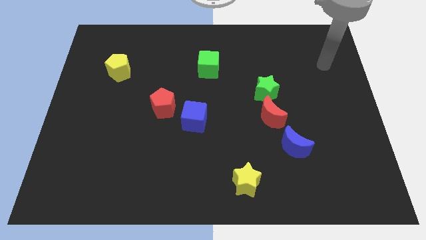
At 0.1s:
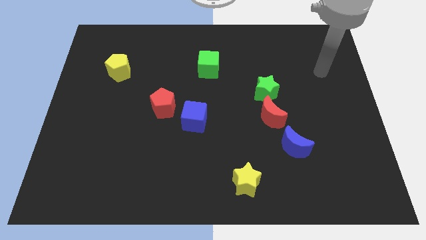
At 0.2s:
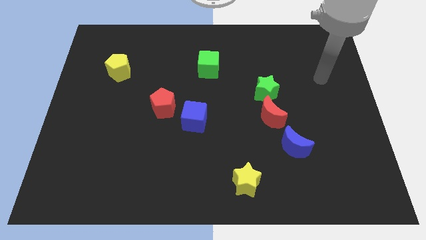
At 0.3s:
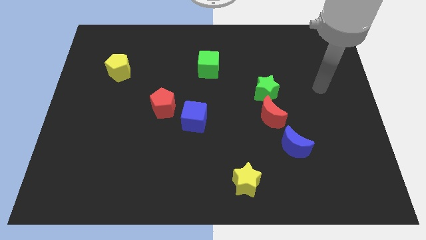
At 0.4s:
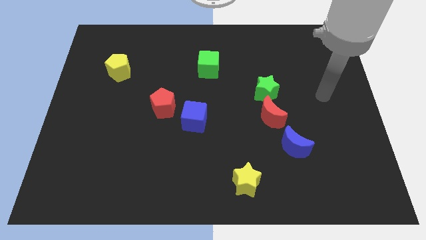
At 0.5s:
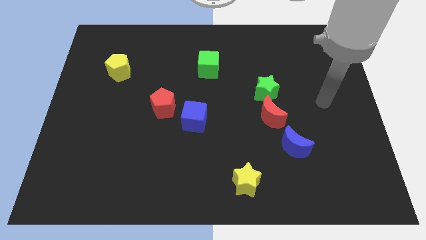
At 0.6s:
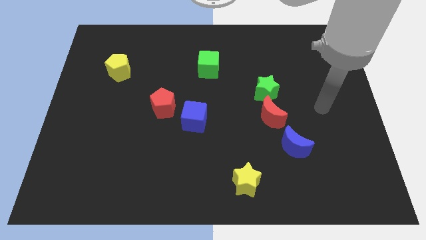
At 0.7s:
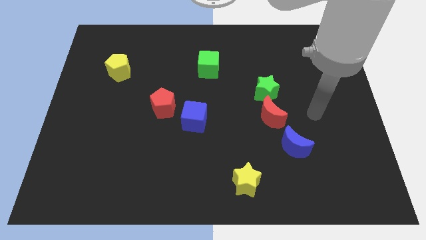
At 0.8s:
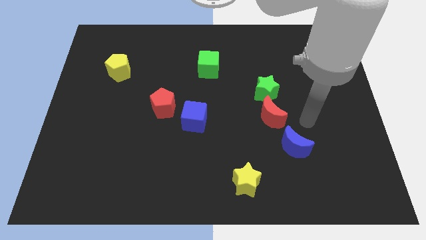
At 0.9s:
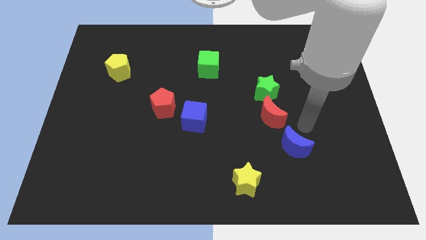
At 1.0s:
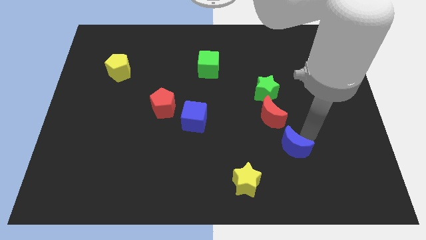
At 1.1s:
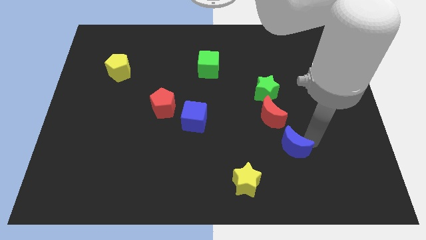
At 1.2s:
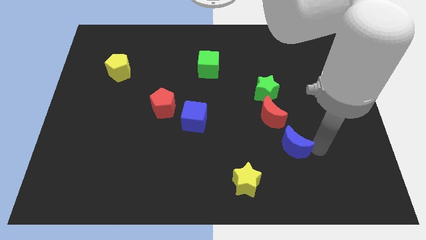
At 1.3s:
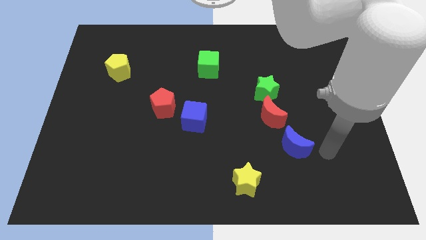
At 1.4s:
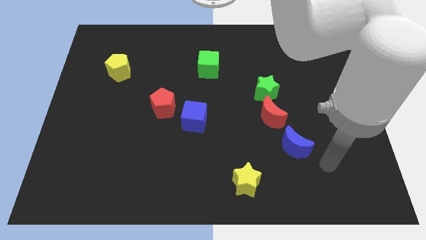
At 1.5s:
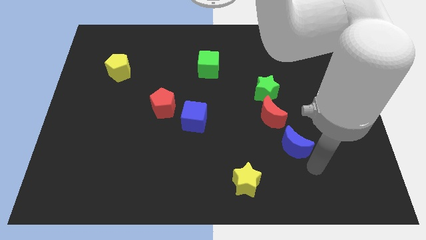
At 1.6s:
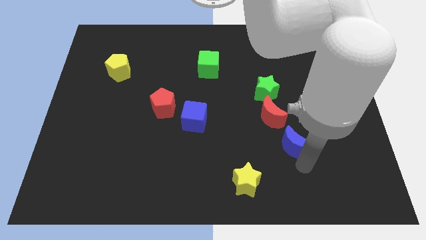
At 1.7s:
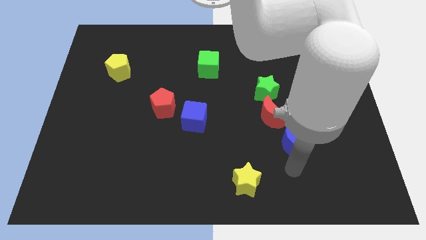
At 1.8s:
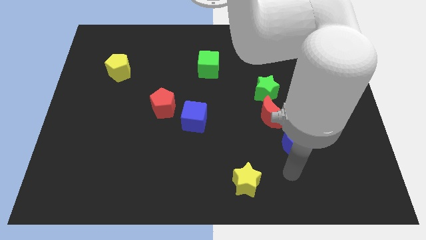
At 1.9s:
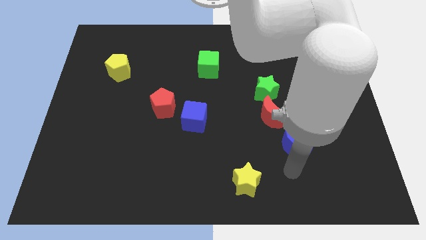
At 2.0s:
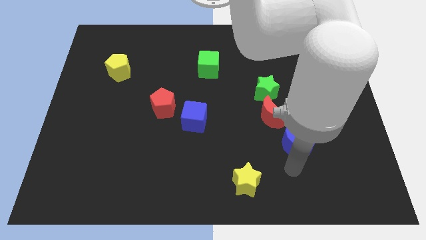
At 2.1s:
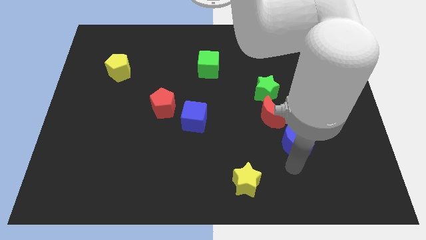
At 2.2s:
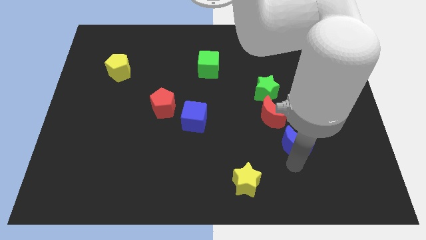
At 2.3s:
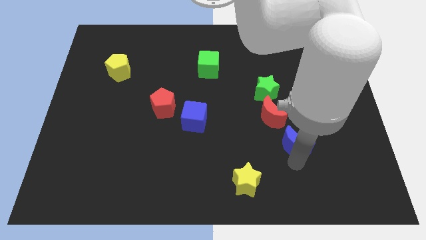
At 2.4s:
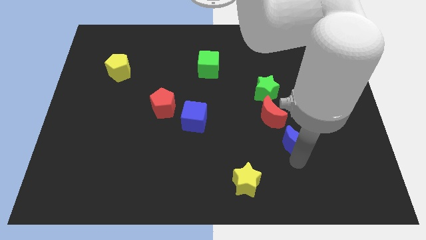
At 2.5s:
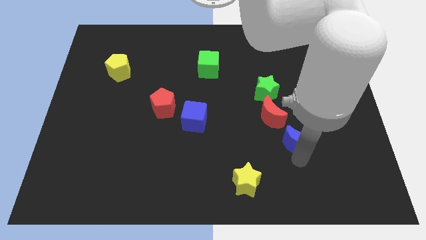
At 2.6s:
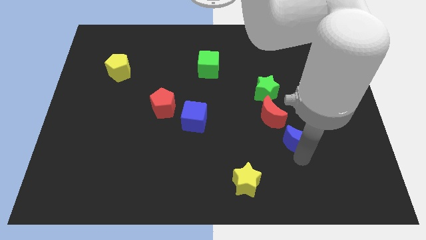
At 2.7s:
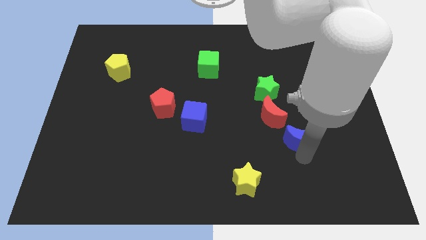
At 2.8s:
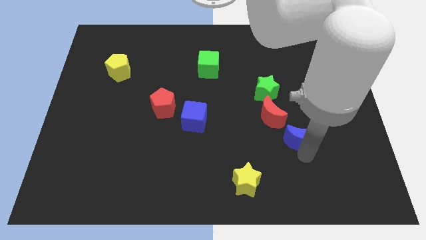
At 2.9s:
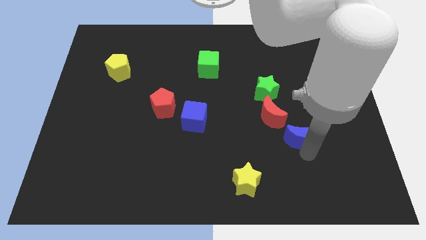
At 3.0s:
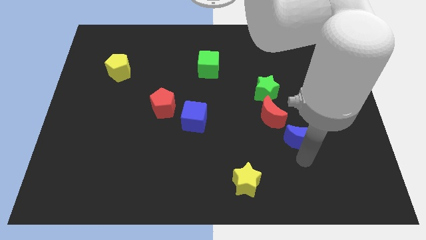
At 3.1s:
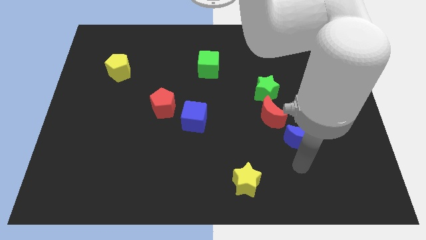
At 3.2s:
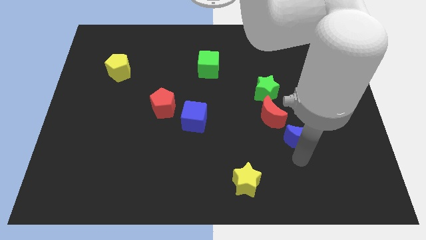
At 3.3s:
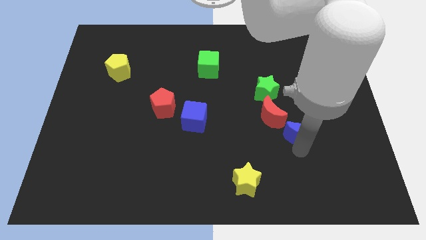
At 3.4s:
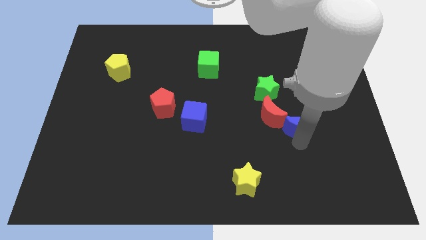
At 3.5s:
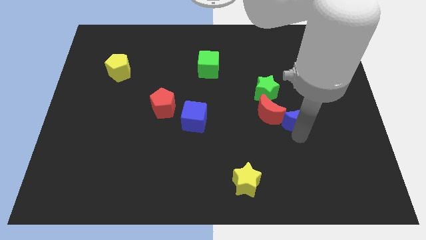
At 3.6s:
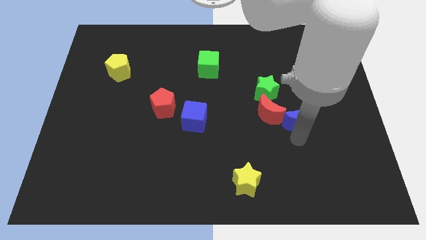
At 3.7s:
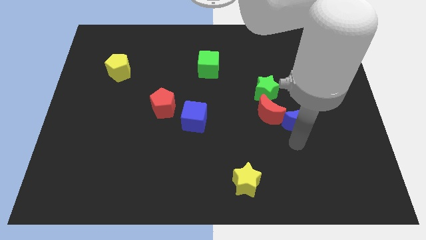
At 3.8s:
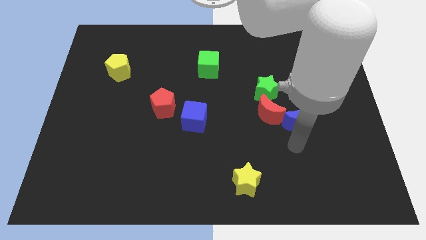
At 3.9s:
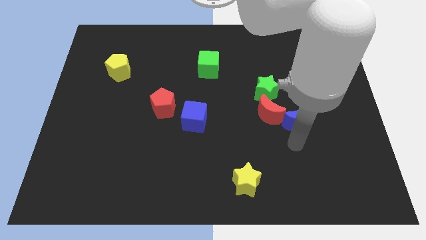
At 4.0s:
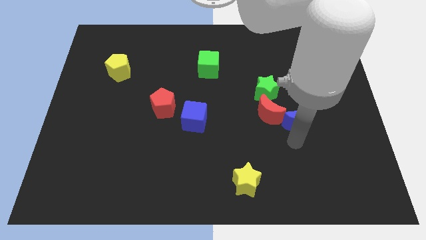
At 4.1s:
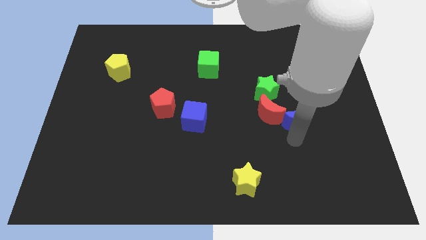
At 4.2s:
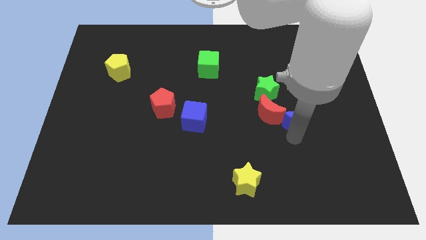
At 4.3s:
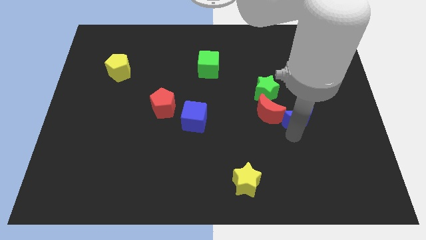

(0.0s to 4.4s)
slide the blue moon upwards a little bit

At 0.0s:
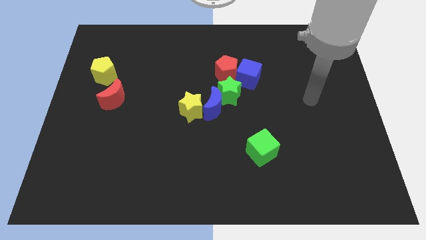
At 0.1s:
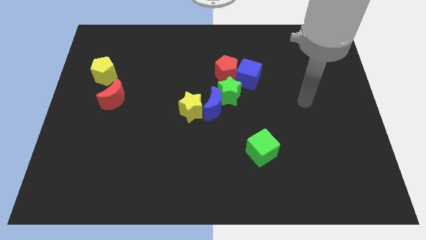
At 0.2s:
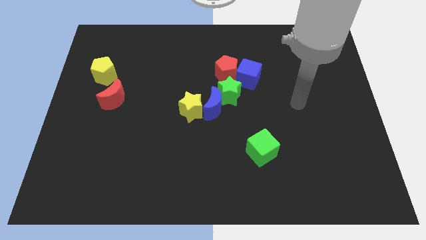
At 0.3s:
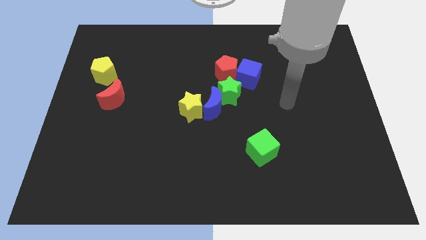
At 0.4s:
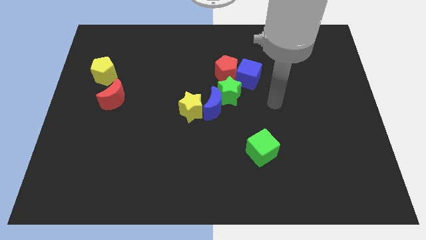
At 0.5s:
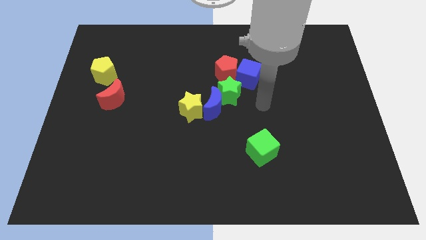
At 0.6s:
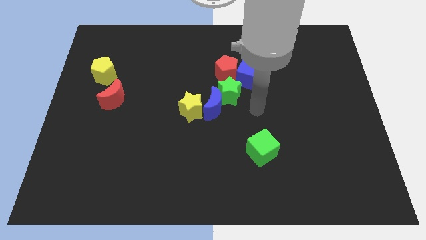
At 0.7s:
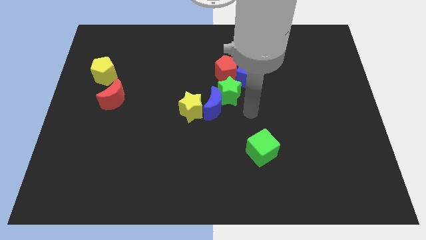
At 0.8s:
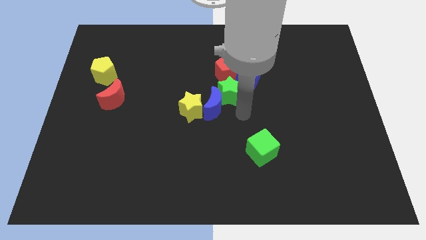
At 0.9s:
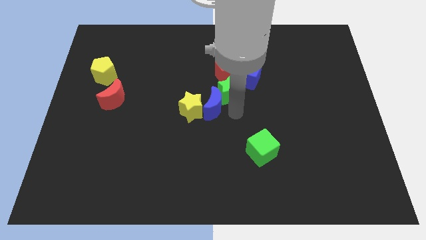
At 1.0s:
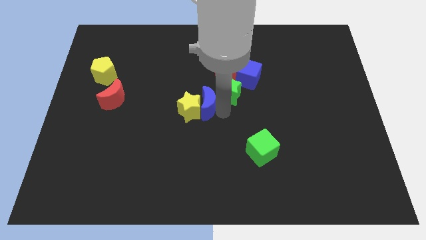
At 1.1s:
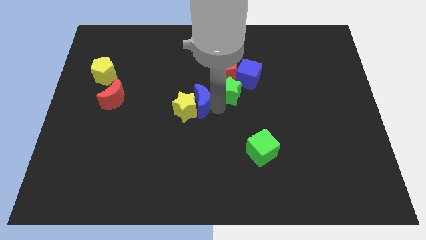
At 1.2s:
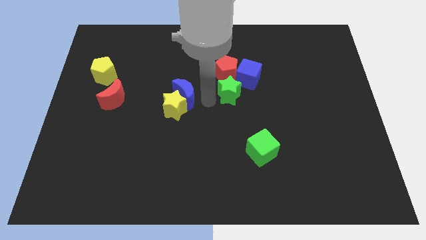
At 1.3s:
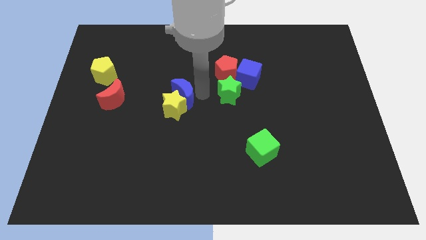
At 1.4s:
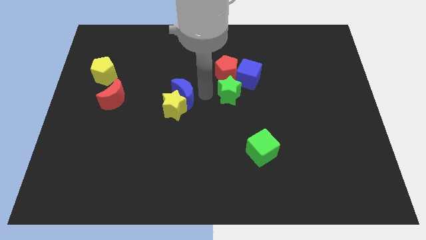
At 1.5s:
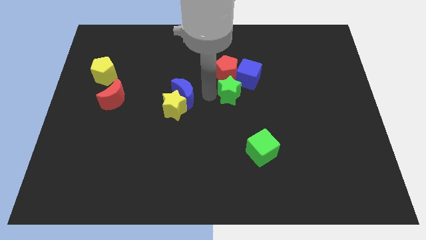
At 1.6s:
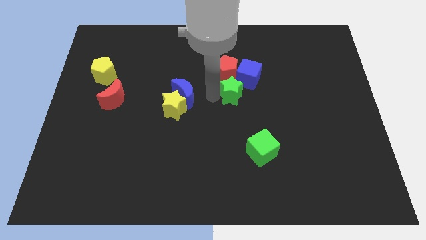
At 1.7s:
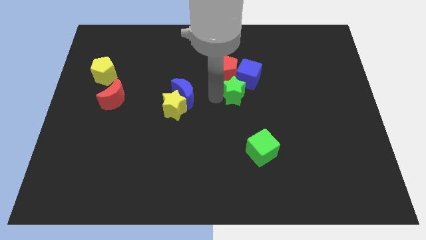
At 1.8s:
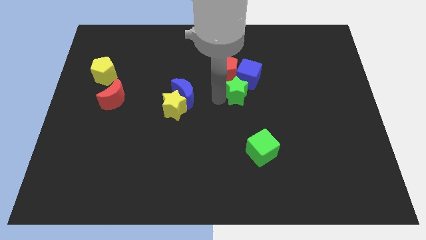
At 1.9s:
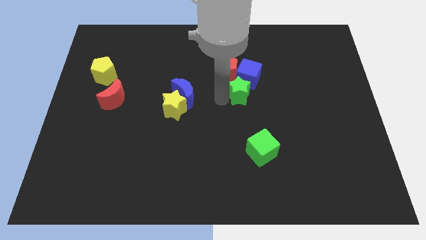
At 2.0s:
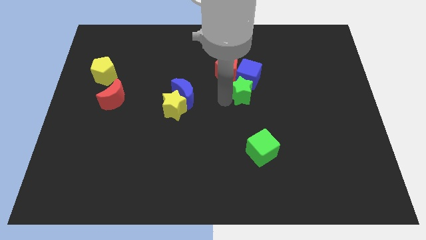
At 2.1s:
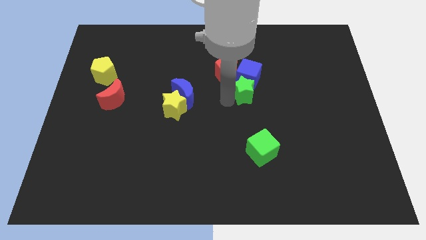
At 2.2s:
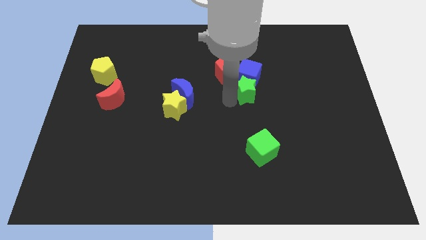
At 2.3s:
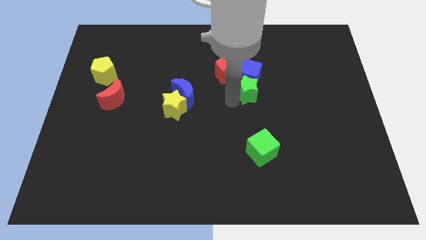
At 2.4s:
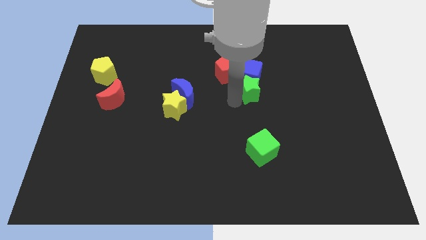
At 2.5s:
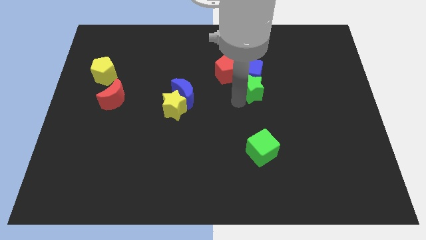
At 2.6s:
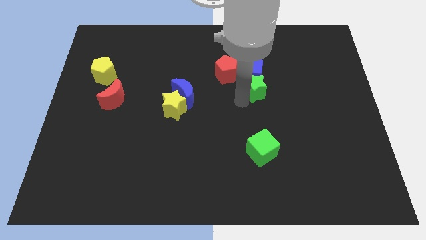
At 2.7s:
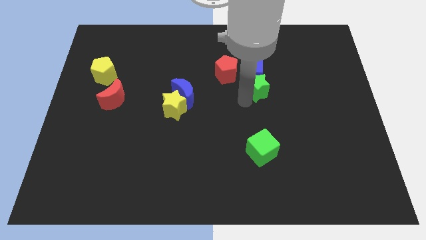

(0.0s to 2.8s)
push the green star to the right a little bit

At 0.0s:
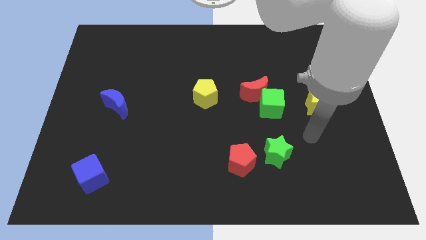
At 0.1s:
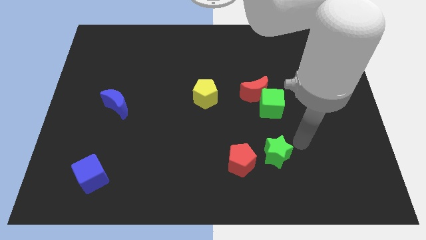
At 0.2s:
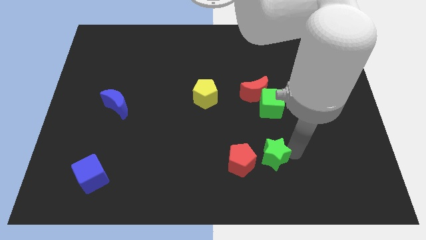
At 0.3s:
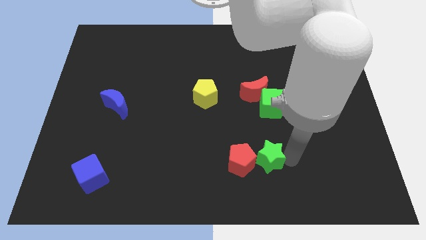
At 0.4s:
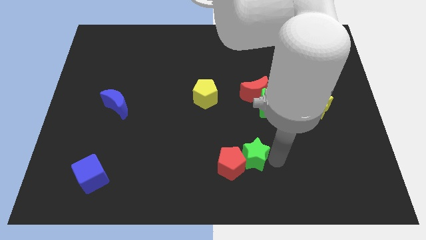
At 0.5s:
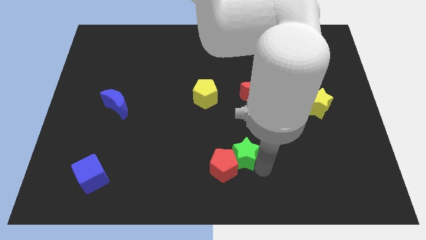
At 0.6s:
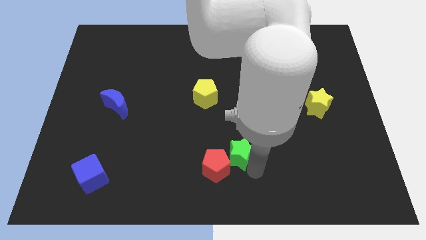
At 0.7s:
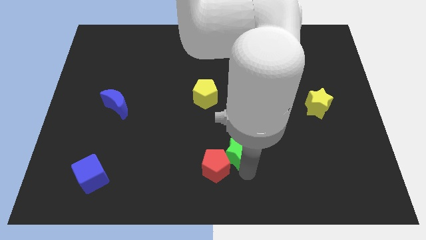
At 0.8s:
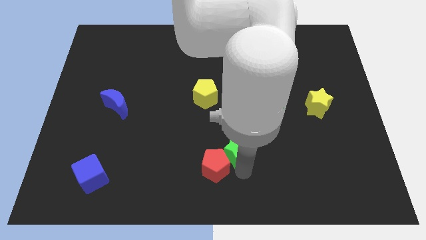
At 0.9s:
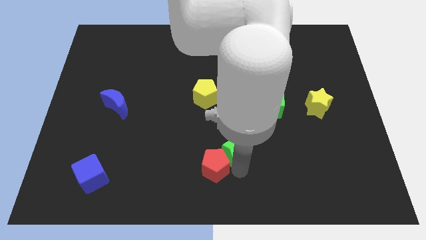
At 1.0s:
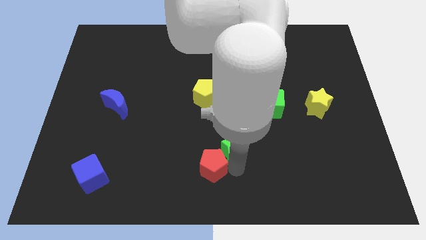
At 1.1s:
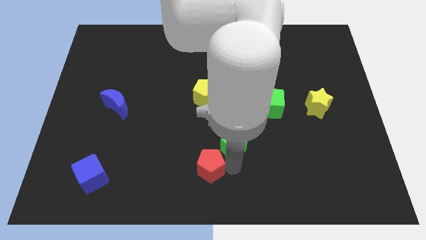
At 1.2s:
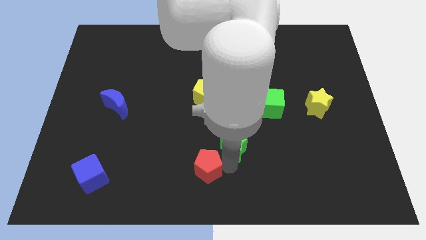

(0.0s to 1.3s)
slide the red pentagon to the left a little bit

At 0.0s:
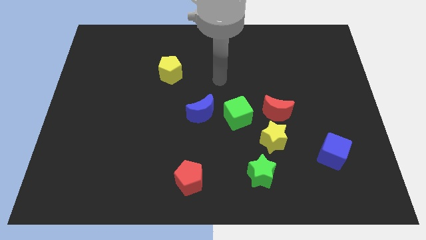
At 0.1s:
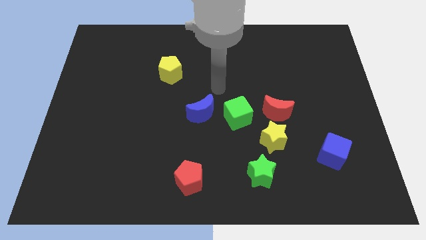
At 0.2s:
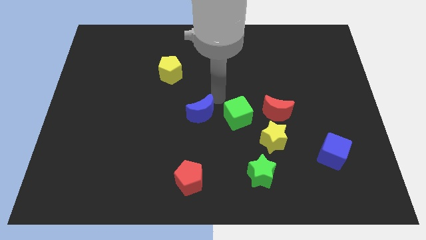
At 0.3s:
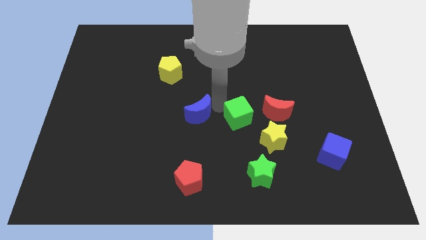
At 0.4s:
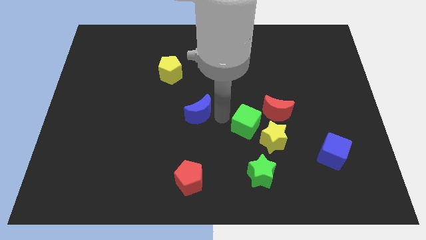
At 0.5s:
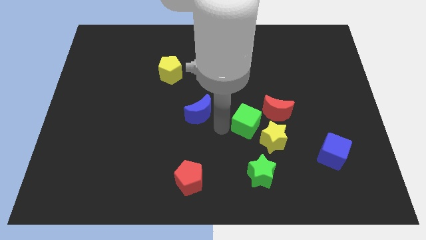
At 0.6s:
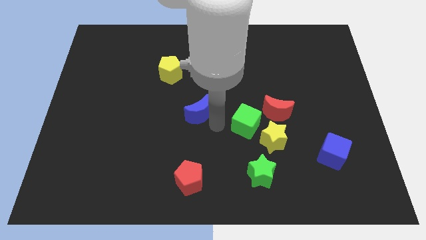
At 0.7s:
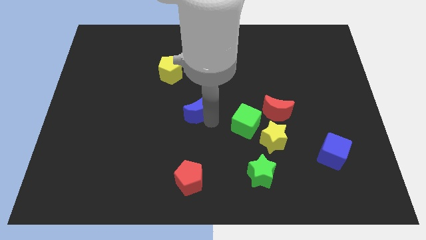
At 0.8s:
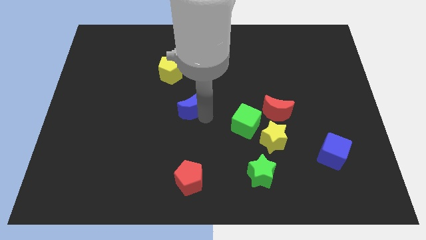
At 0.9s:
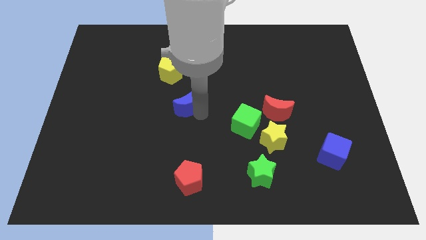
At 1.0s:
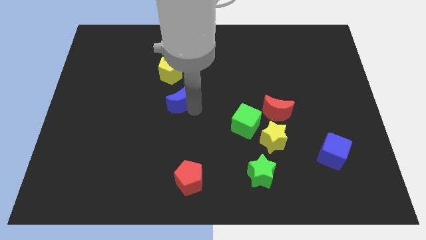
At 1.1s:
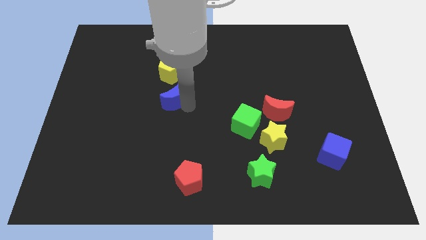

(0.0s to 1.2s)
slightly move the blue moon up and left
